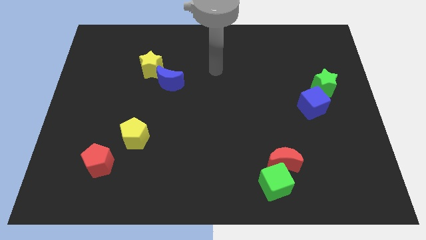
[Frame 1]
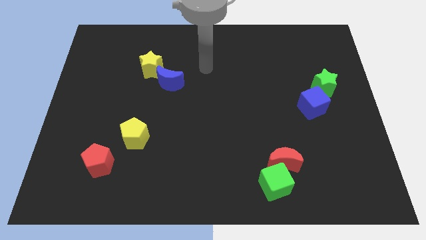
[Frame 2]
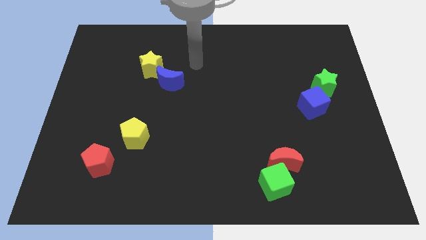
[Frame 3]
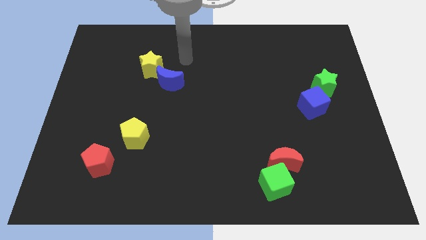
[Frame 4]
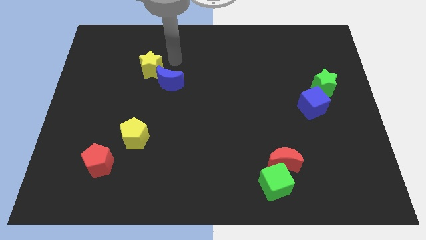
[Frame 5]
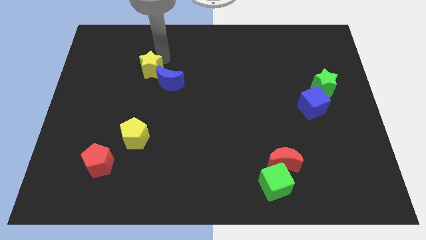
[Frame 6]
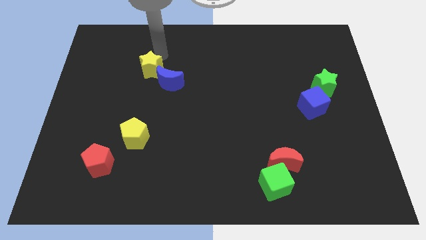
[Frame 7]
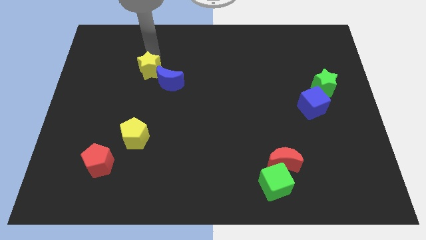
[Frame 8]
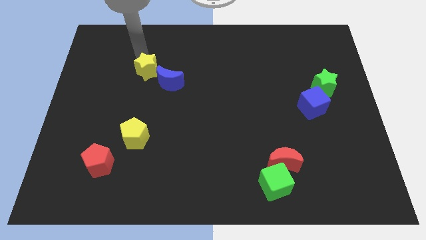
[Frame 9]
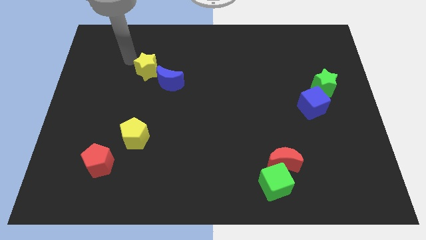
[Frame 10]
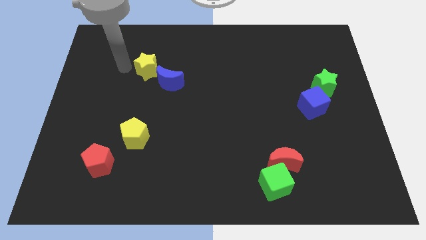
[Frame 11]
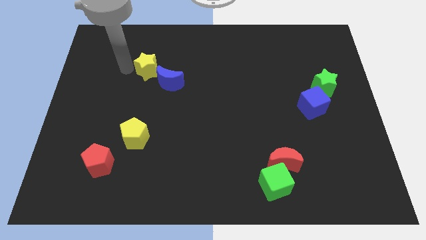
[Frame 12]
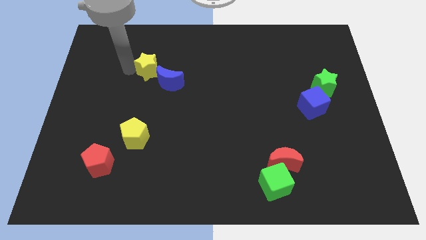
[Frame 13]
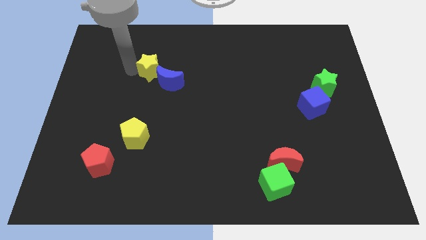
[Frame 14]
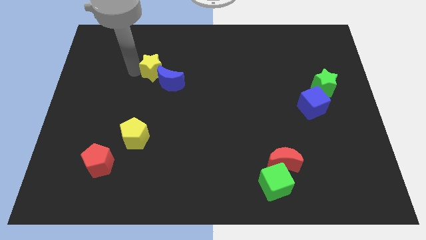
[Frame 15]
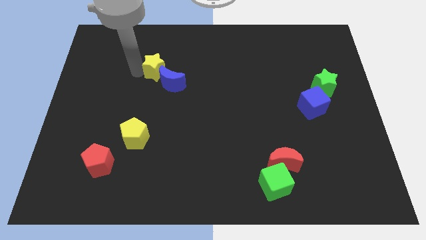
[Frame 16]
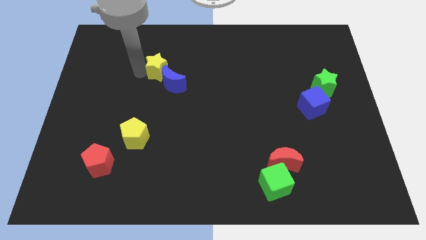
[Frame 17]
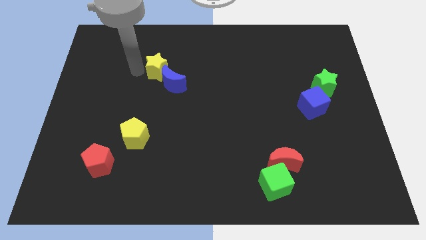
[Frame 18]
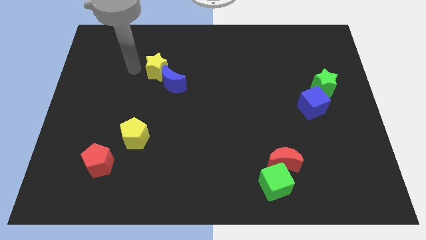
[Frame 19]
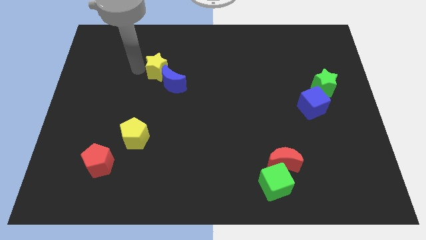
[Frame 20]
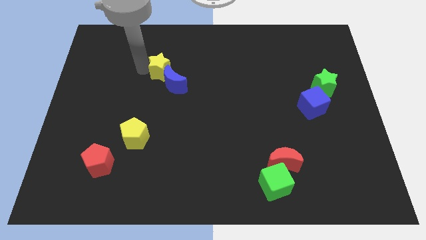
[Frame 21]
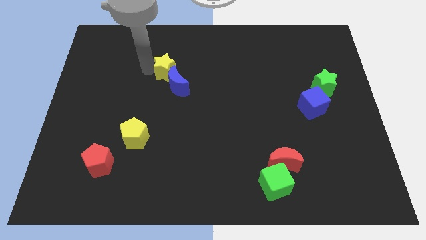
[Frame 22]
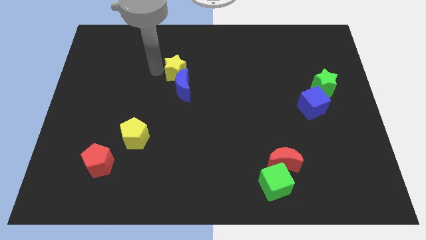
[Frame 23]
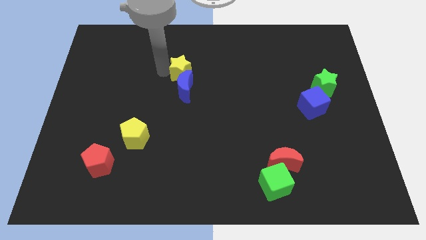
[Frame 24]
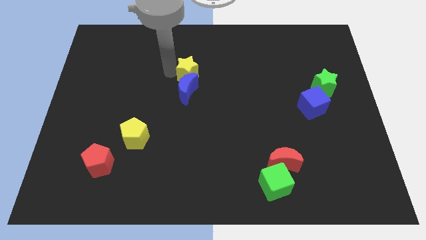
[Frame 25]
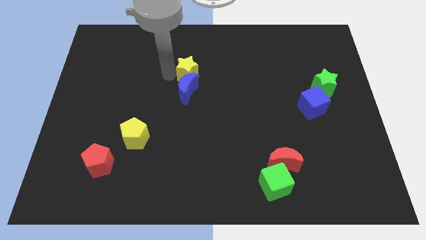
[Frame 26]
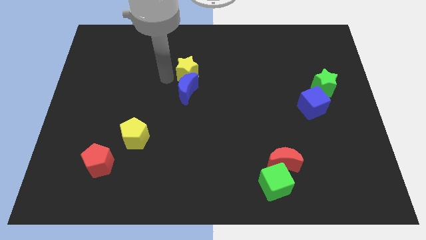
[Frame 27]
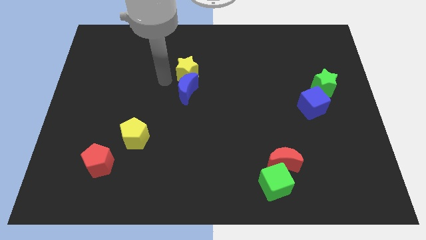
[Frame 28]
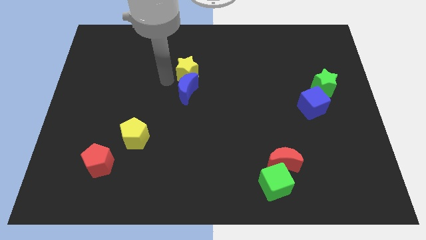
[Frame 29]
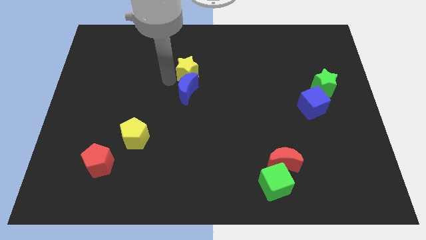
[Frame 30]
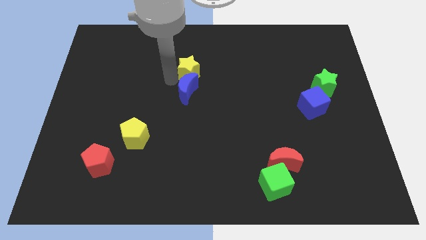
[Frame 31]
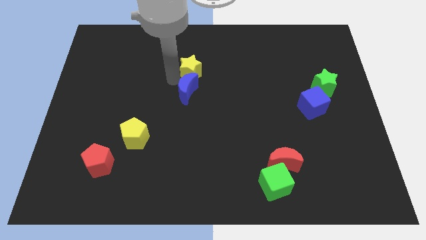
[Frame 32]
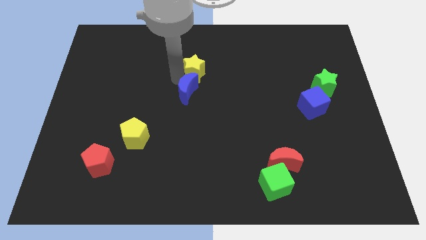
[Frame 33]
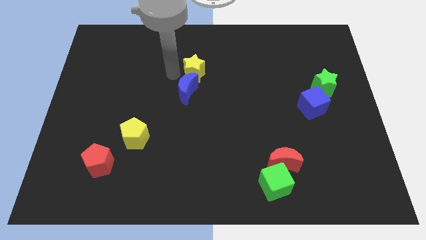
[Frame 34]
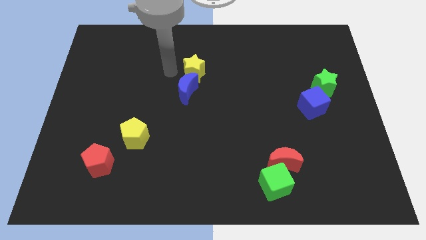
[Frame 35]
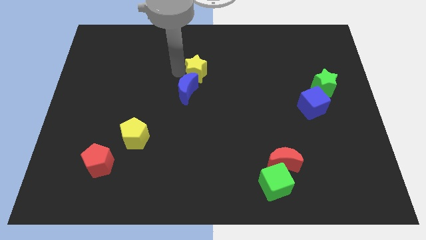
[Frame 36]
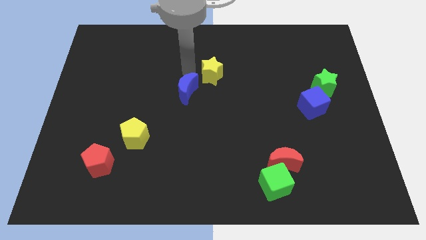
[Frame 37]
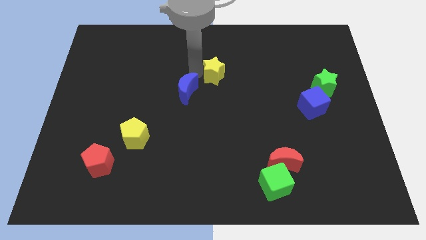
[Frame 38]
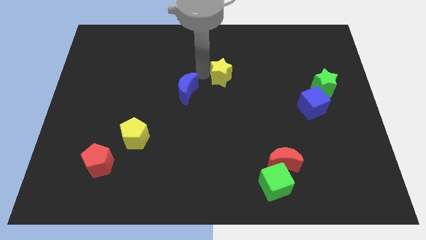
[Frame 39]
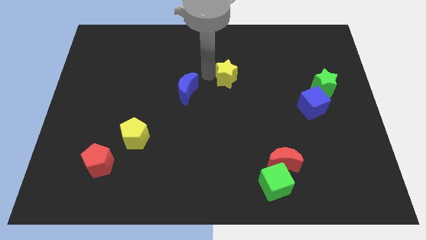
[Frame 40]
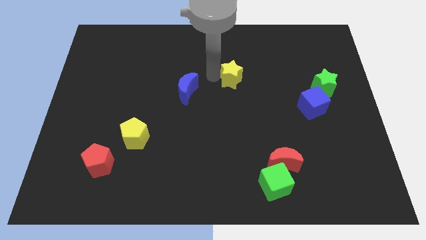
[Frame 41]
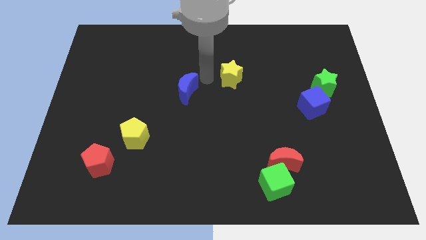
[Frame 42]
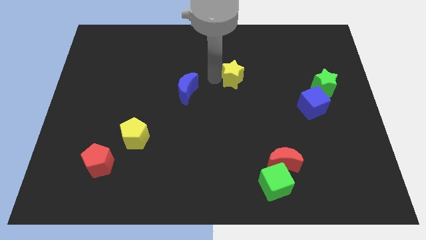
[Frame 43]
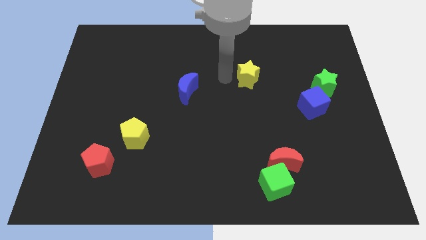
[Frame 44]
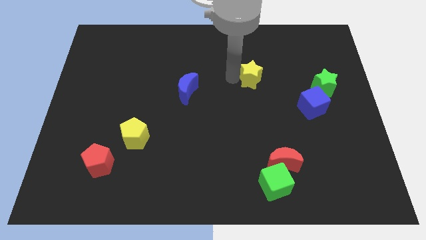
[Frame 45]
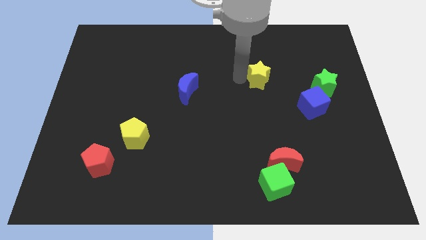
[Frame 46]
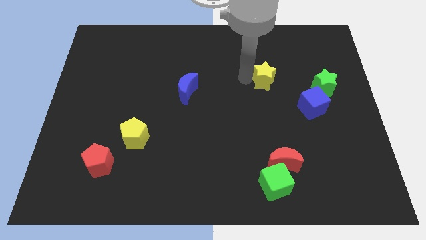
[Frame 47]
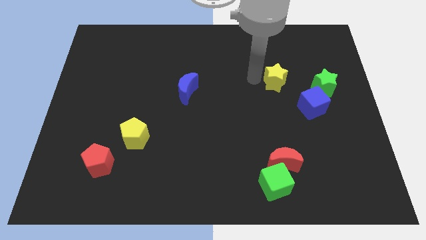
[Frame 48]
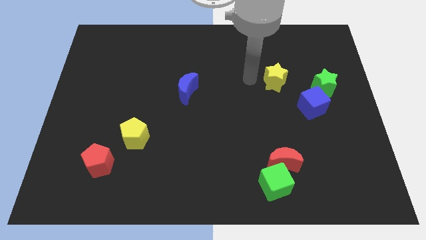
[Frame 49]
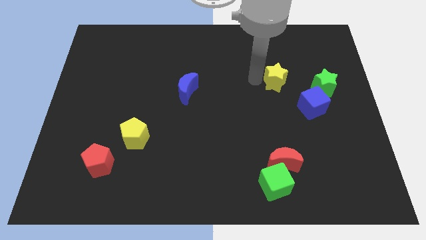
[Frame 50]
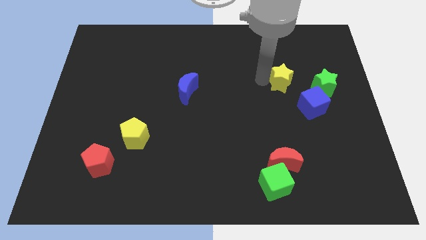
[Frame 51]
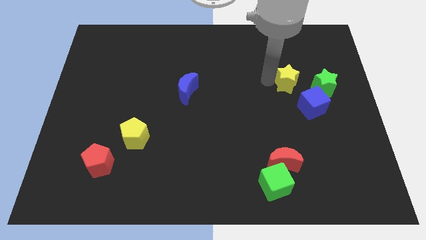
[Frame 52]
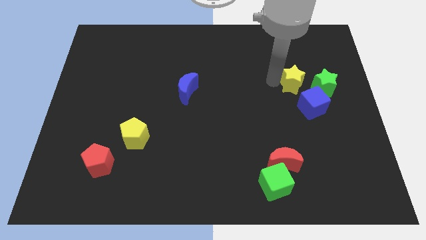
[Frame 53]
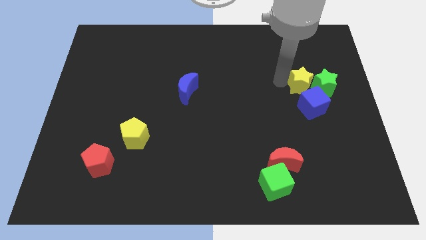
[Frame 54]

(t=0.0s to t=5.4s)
put the yellow star towards the green star

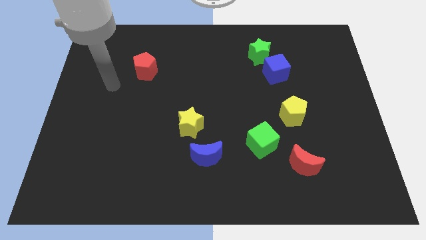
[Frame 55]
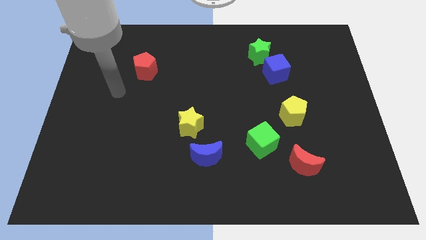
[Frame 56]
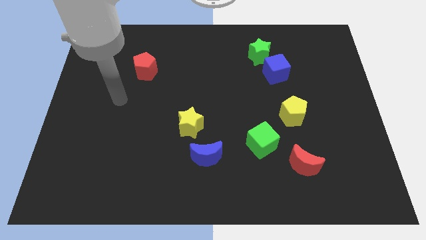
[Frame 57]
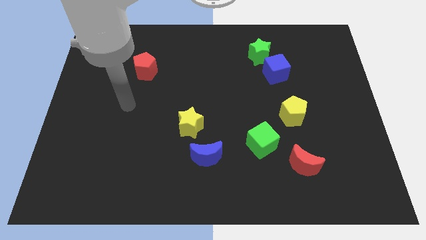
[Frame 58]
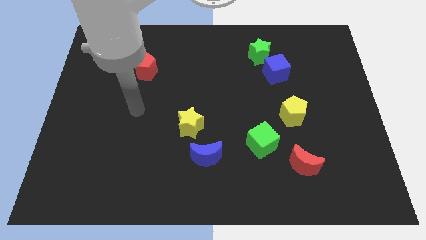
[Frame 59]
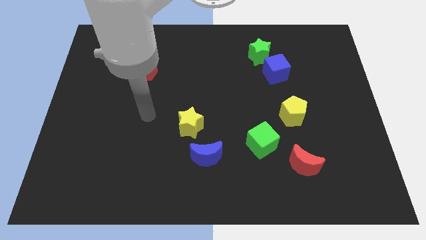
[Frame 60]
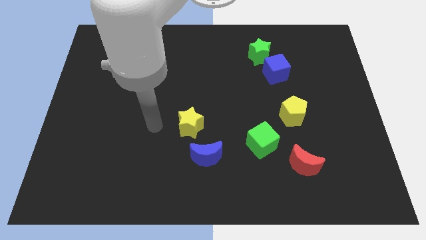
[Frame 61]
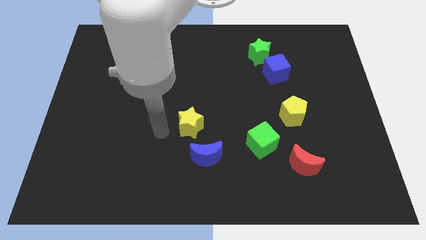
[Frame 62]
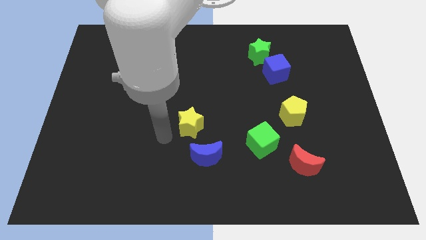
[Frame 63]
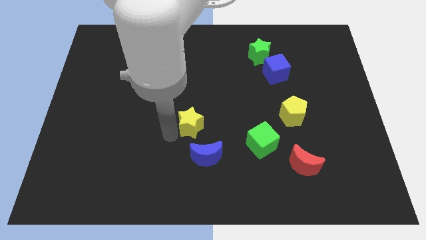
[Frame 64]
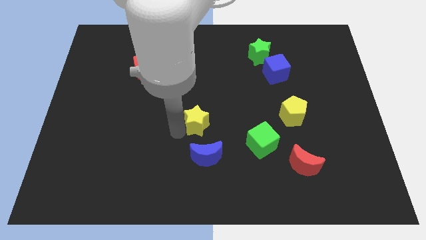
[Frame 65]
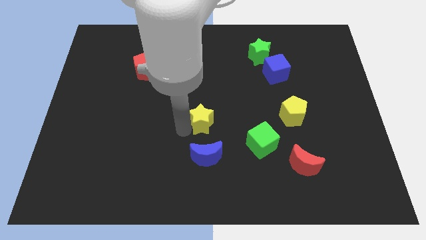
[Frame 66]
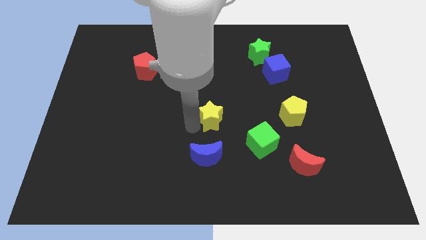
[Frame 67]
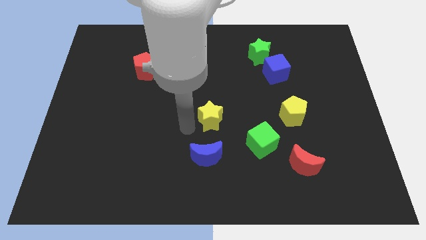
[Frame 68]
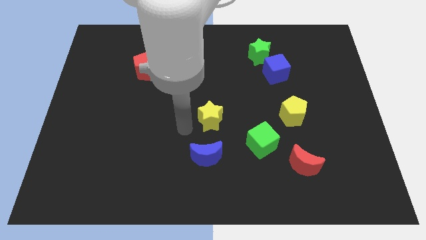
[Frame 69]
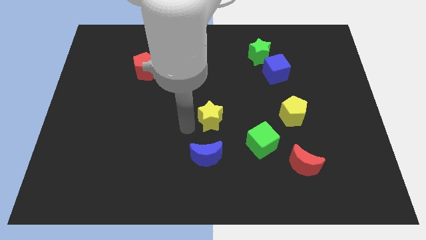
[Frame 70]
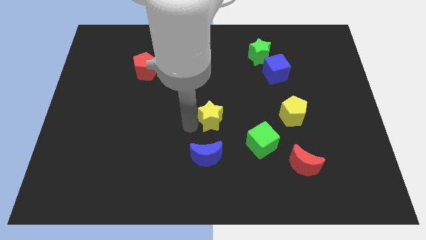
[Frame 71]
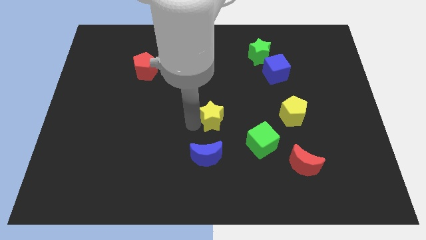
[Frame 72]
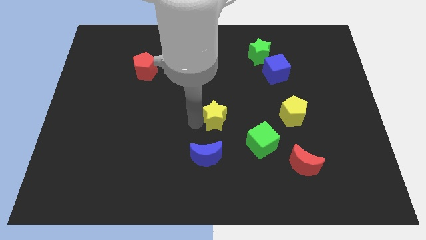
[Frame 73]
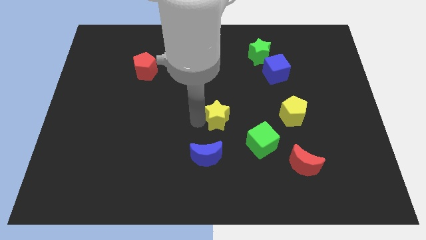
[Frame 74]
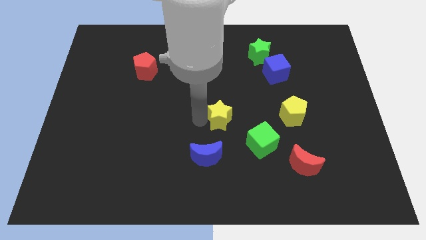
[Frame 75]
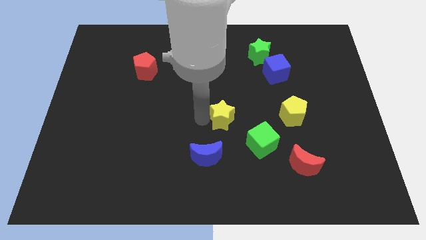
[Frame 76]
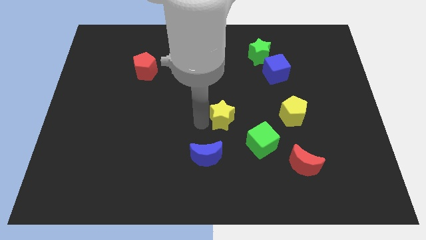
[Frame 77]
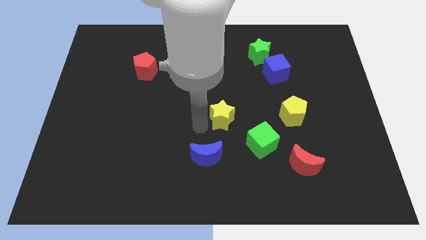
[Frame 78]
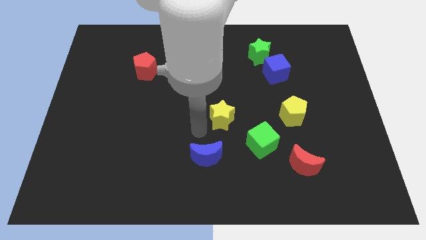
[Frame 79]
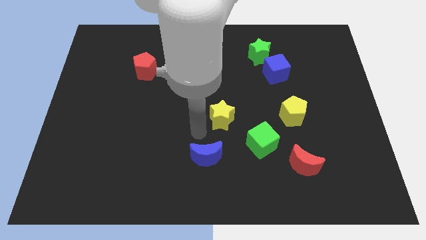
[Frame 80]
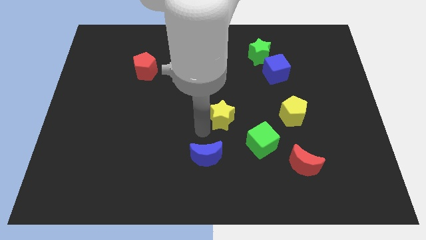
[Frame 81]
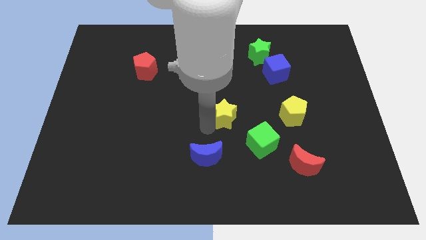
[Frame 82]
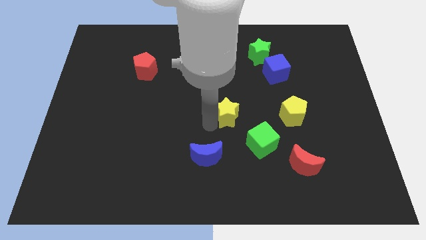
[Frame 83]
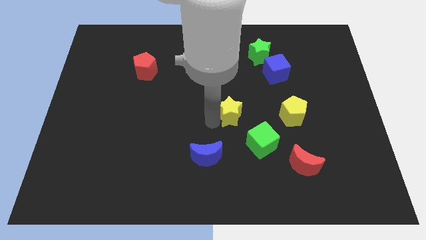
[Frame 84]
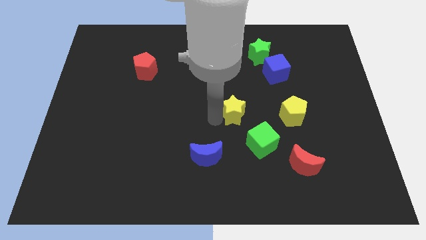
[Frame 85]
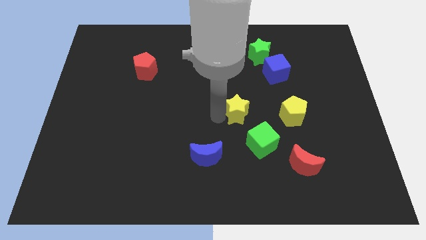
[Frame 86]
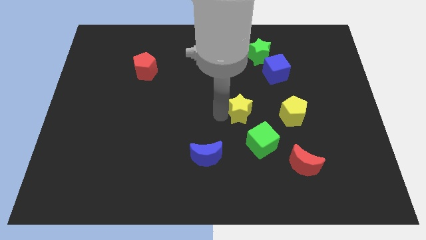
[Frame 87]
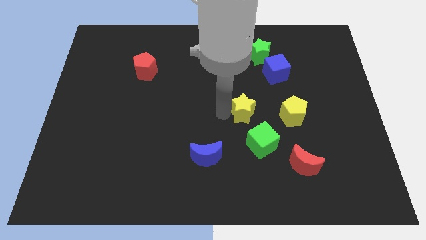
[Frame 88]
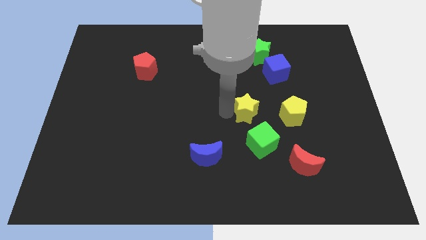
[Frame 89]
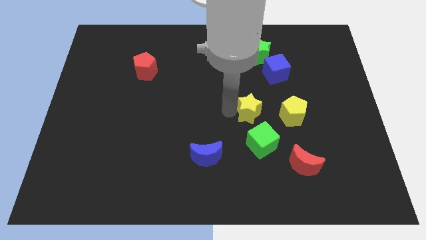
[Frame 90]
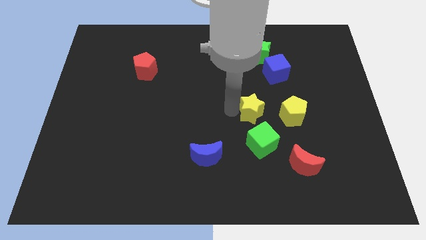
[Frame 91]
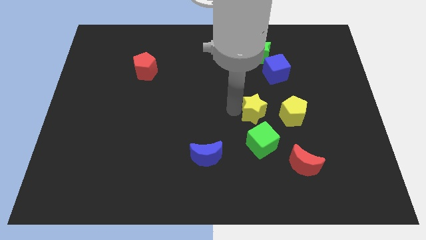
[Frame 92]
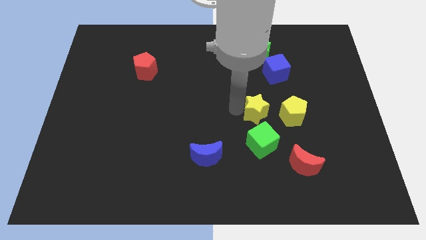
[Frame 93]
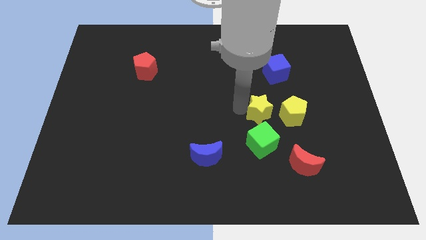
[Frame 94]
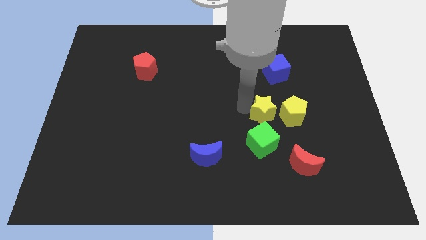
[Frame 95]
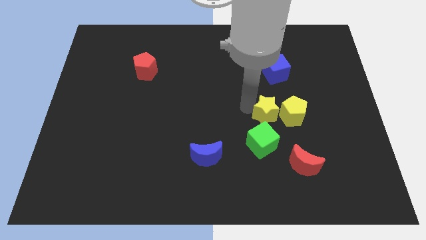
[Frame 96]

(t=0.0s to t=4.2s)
put the yellow star towards the yellow pentagon
